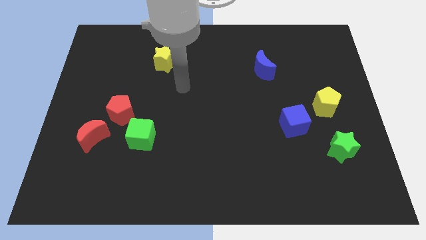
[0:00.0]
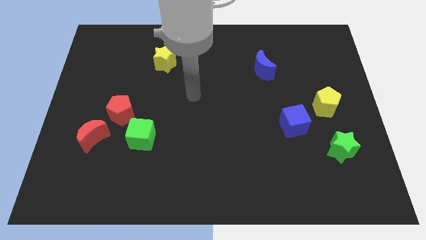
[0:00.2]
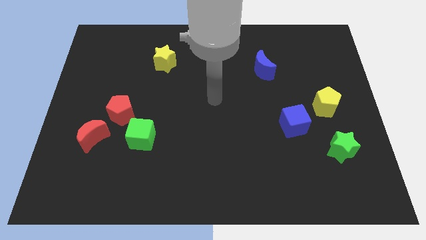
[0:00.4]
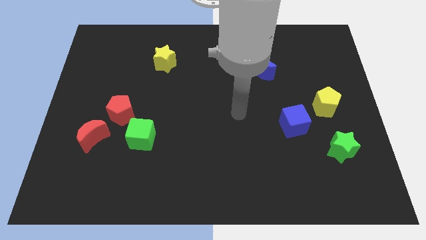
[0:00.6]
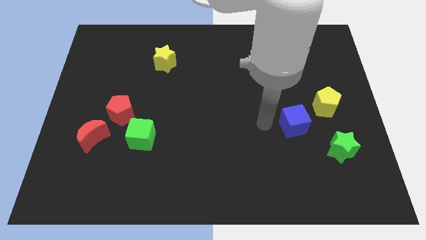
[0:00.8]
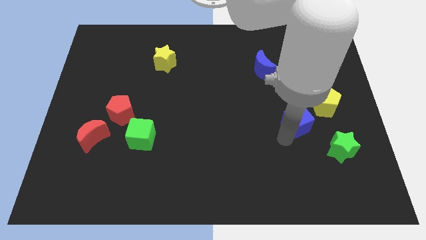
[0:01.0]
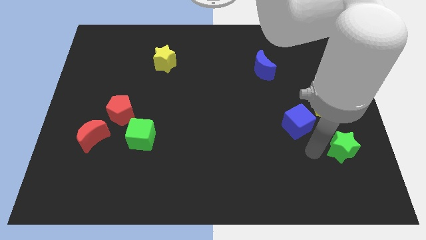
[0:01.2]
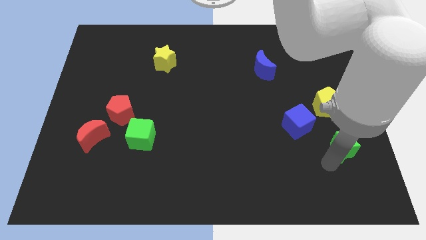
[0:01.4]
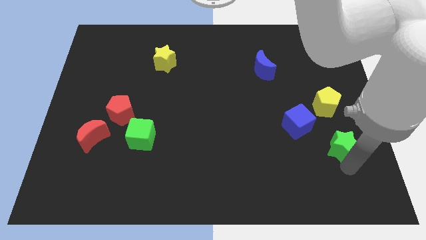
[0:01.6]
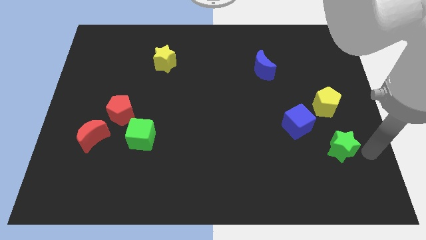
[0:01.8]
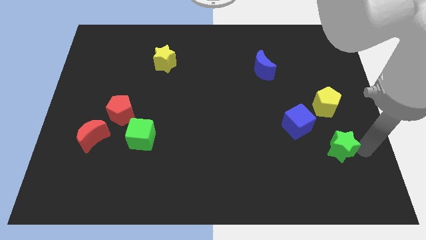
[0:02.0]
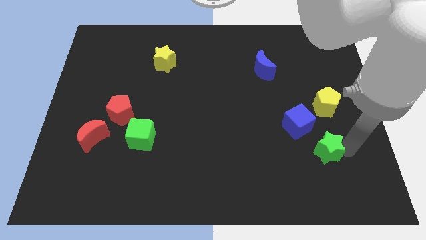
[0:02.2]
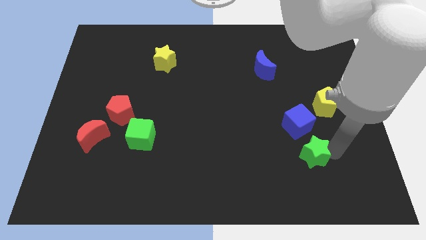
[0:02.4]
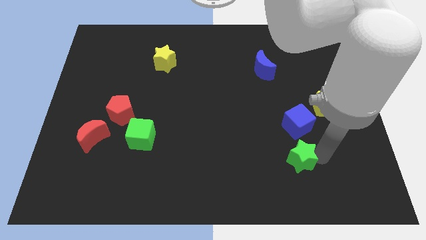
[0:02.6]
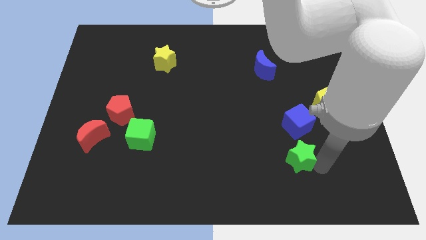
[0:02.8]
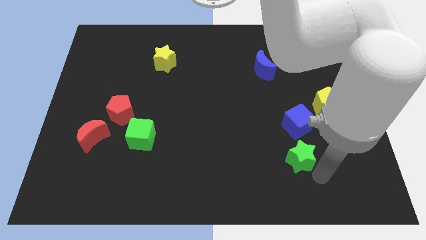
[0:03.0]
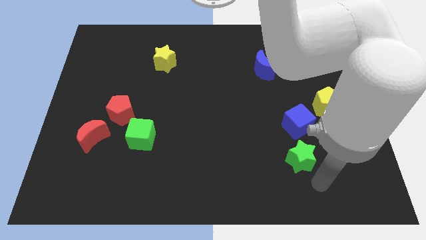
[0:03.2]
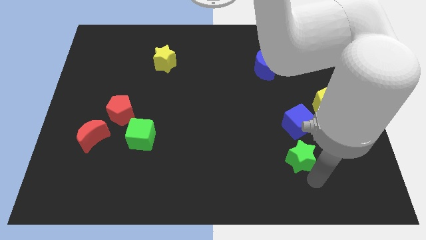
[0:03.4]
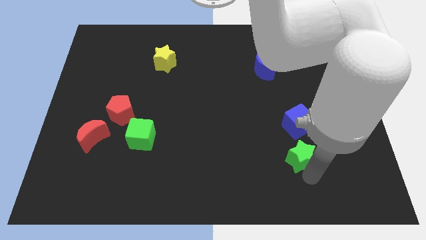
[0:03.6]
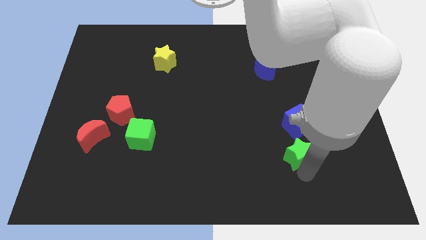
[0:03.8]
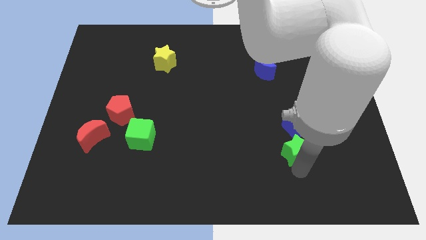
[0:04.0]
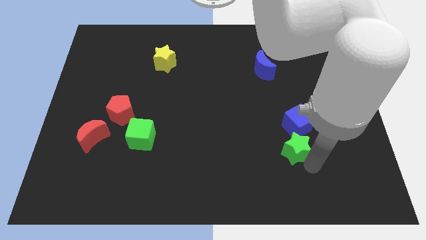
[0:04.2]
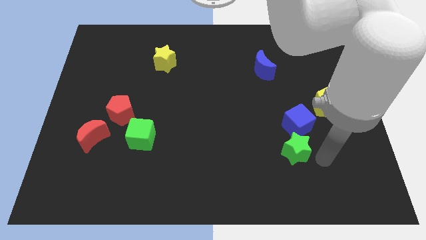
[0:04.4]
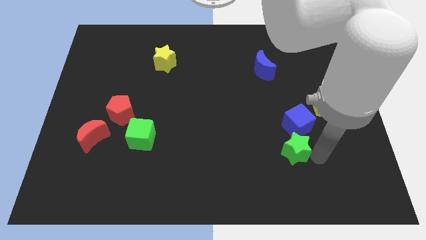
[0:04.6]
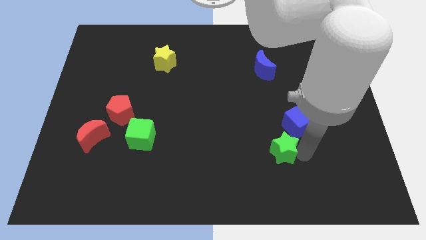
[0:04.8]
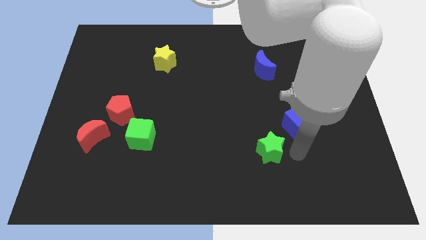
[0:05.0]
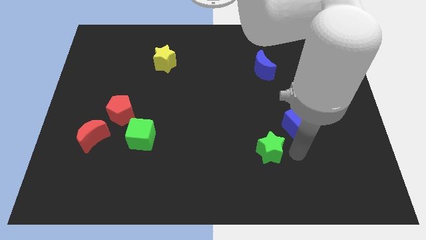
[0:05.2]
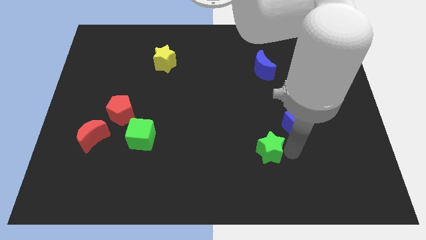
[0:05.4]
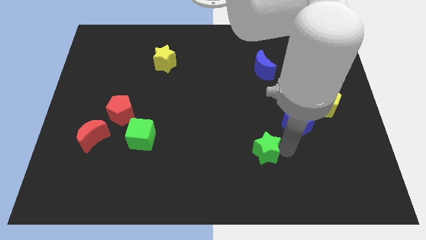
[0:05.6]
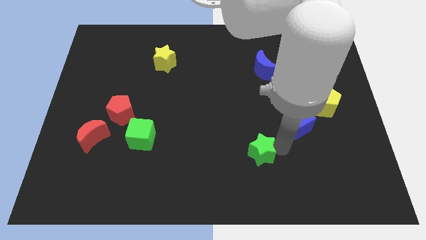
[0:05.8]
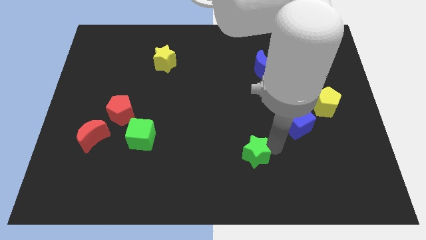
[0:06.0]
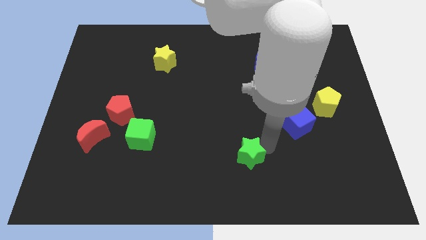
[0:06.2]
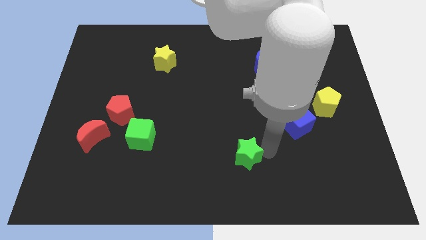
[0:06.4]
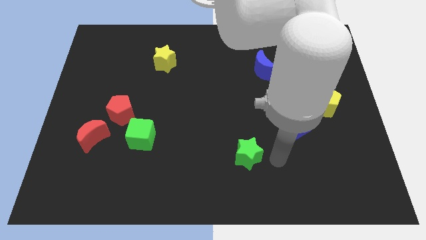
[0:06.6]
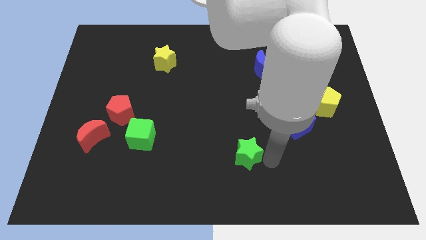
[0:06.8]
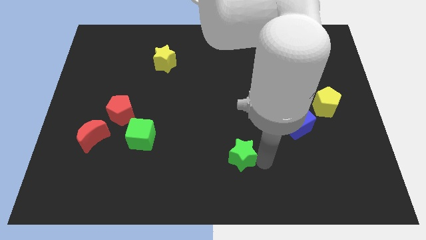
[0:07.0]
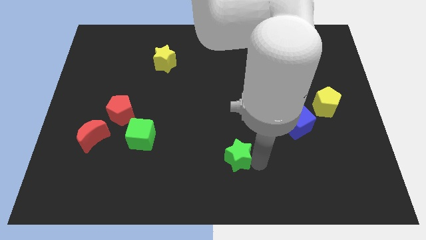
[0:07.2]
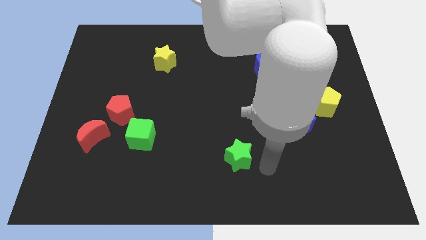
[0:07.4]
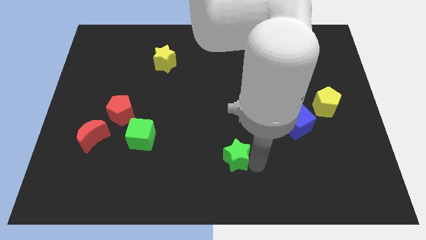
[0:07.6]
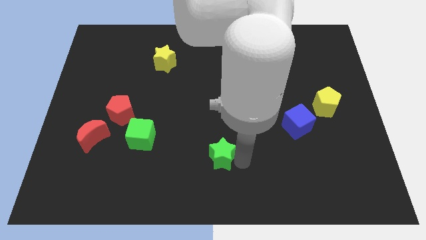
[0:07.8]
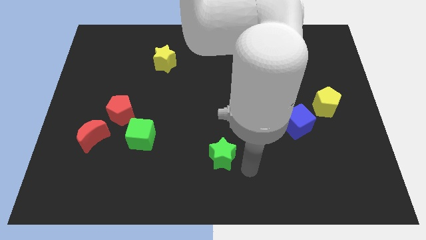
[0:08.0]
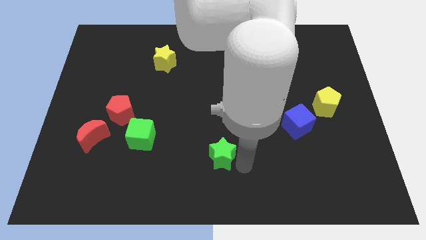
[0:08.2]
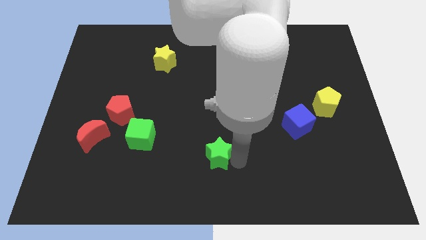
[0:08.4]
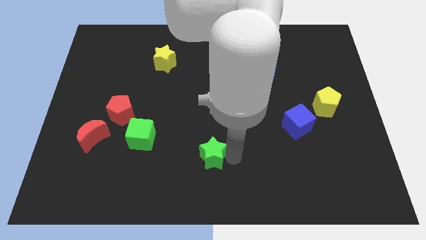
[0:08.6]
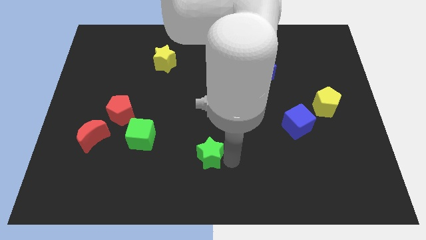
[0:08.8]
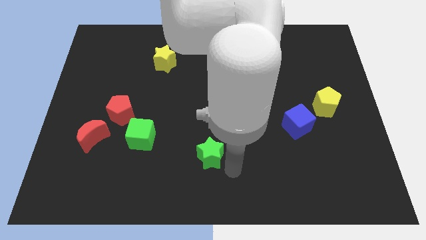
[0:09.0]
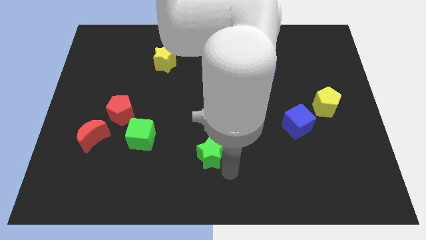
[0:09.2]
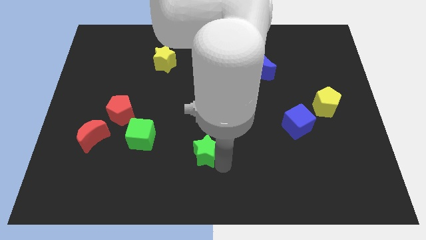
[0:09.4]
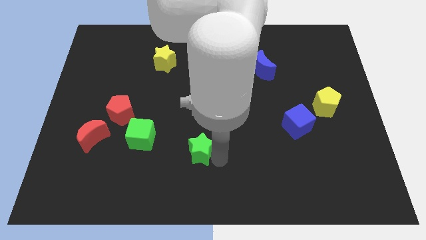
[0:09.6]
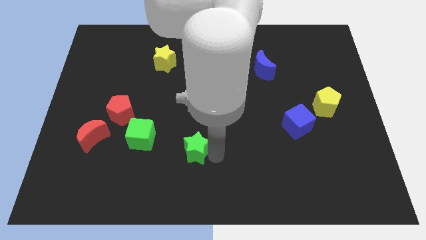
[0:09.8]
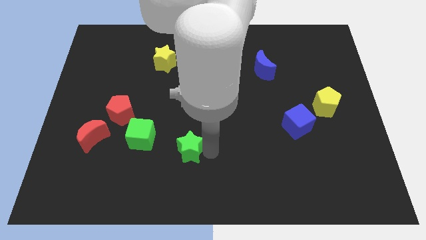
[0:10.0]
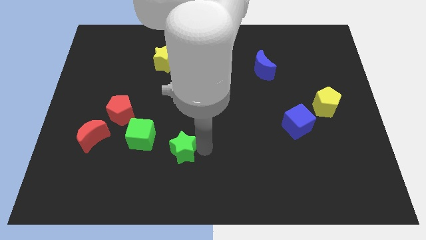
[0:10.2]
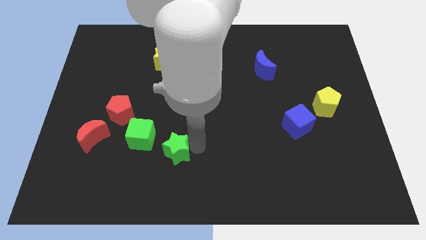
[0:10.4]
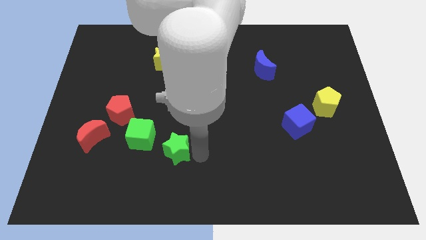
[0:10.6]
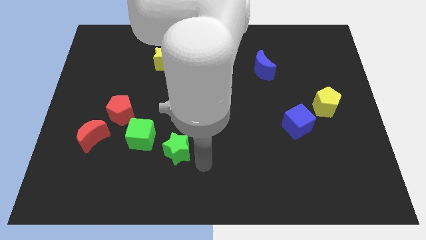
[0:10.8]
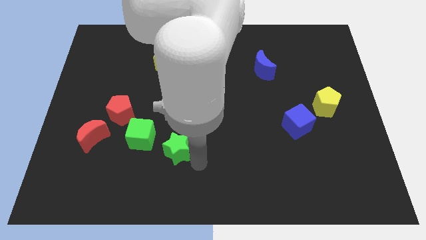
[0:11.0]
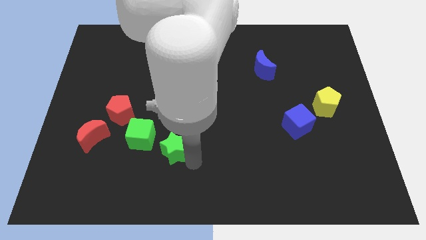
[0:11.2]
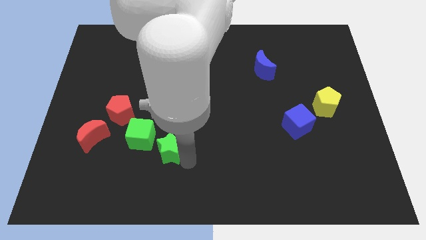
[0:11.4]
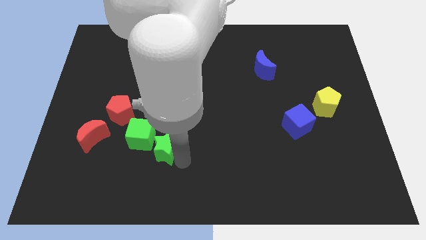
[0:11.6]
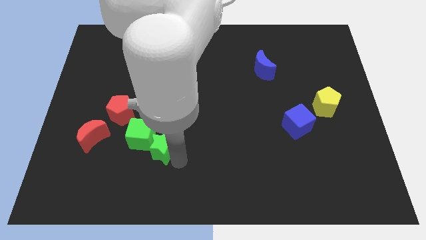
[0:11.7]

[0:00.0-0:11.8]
slide the green star towards the green cube

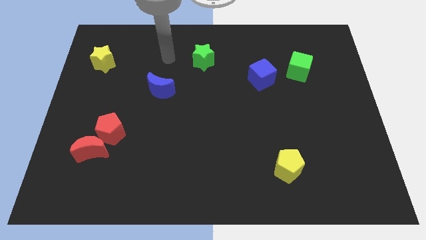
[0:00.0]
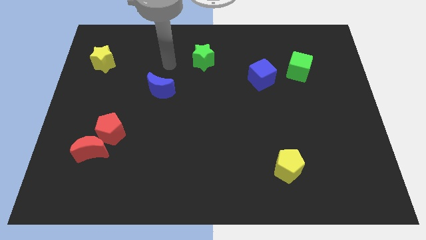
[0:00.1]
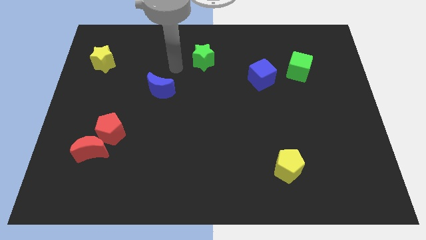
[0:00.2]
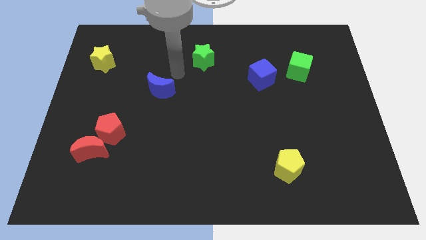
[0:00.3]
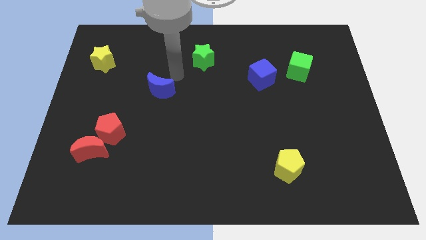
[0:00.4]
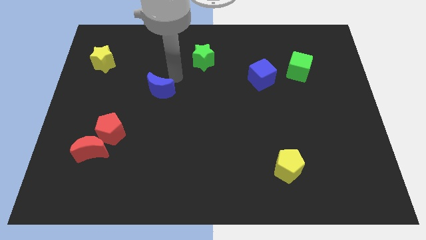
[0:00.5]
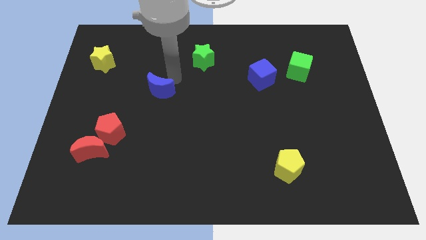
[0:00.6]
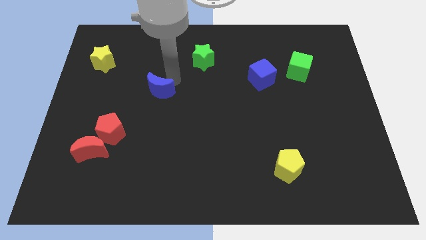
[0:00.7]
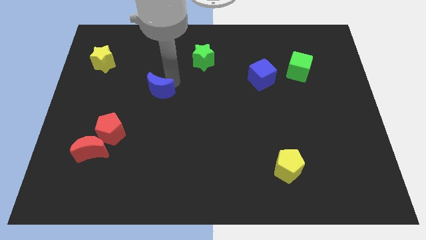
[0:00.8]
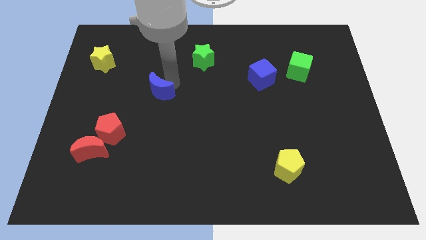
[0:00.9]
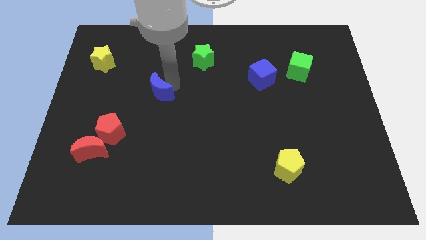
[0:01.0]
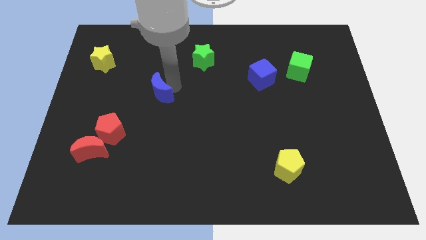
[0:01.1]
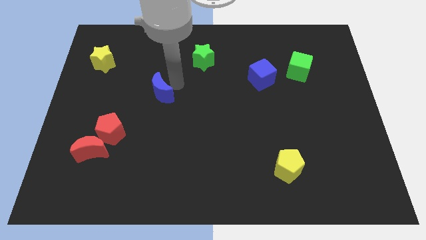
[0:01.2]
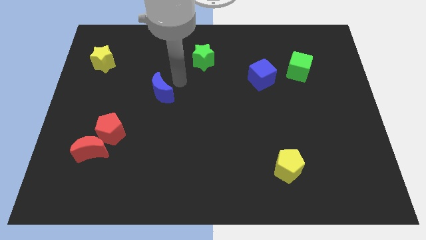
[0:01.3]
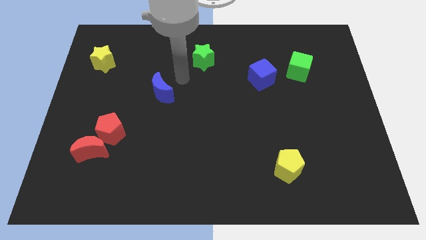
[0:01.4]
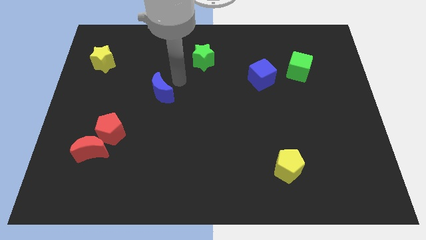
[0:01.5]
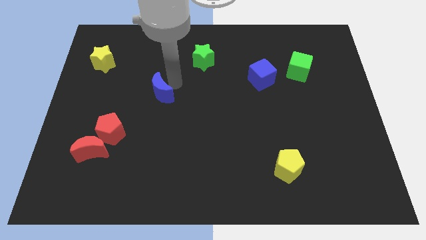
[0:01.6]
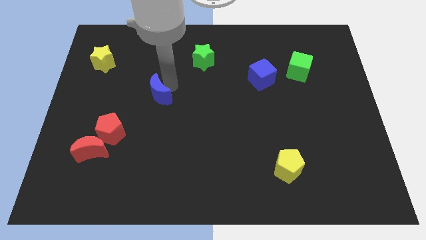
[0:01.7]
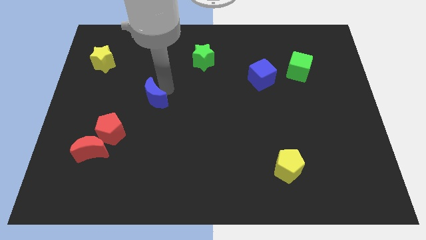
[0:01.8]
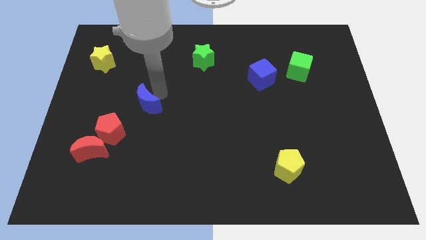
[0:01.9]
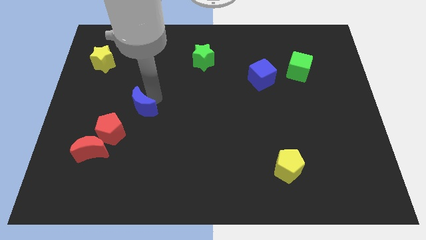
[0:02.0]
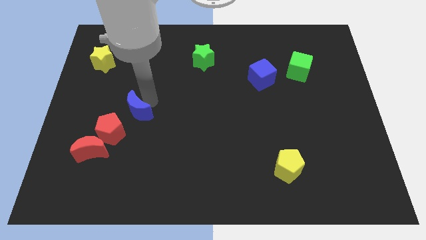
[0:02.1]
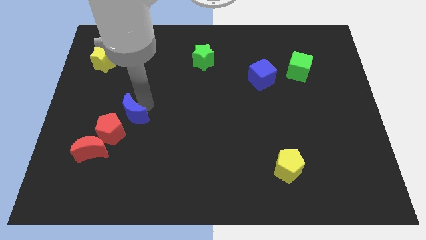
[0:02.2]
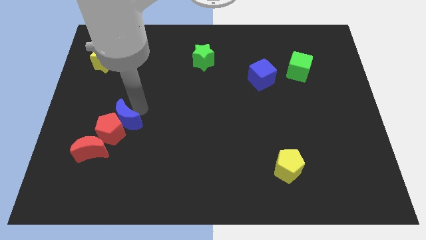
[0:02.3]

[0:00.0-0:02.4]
put the blue moon next to the red pentagon

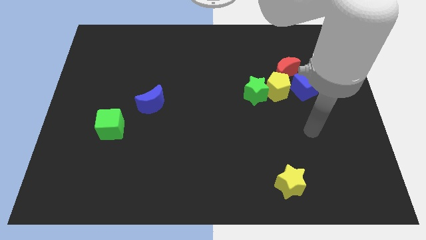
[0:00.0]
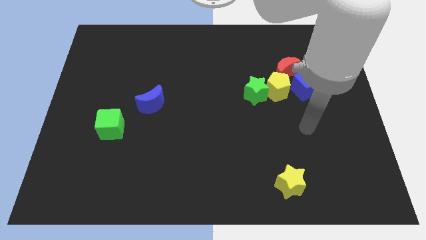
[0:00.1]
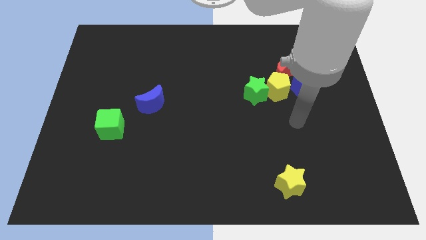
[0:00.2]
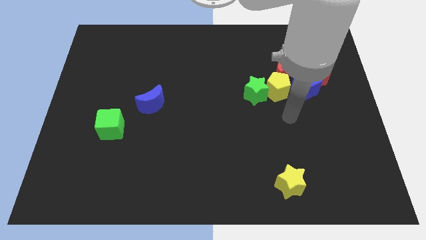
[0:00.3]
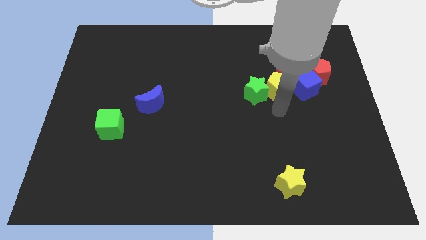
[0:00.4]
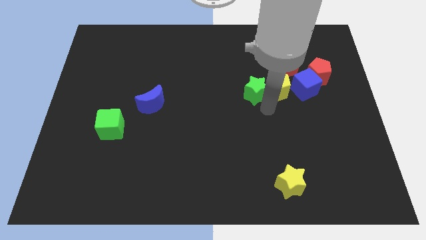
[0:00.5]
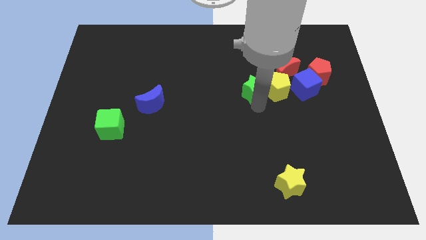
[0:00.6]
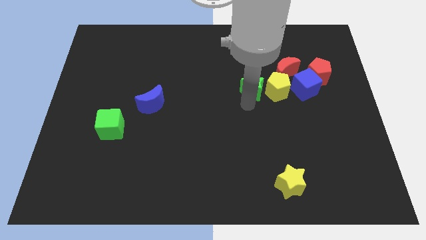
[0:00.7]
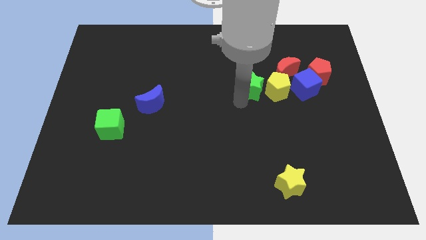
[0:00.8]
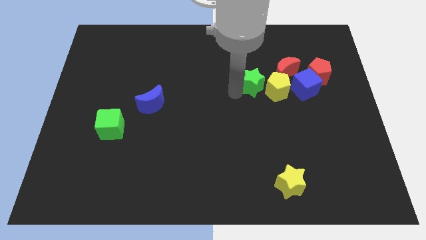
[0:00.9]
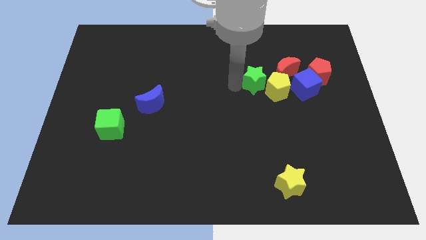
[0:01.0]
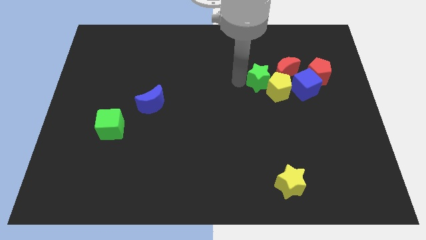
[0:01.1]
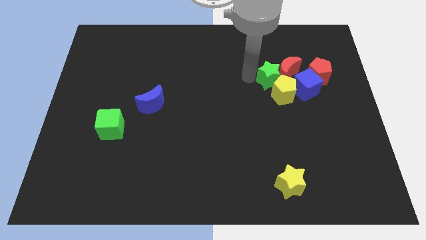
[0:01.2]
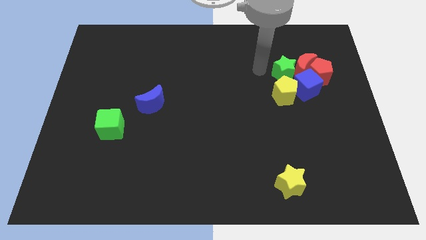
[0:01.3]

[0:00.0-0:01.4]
move the red moon close to the red pentagon
